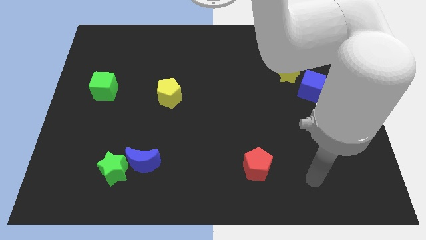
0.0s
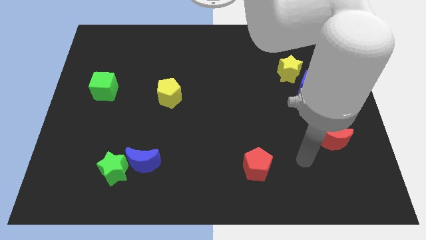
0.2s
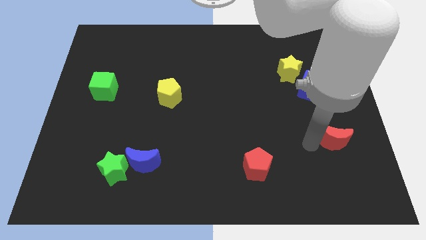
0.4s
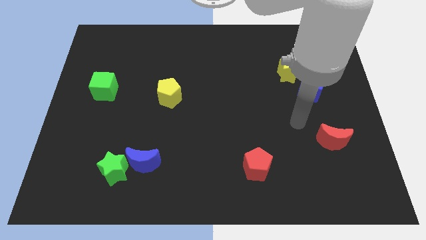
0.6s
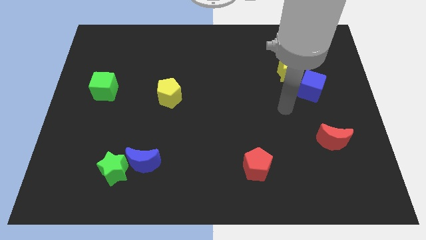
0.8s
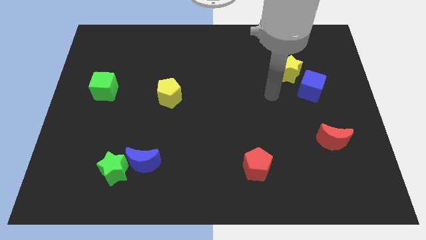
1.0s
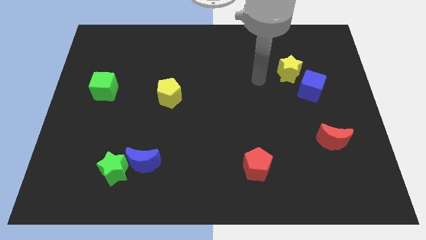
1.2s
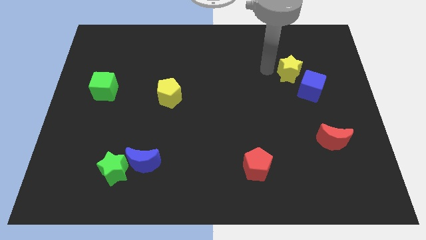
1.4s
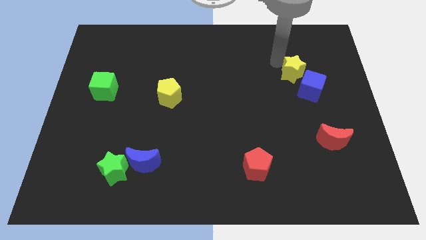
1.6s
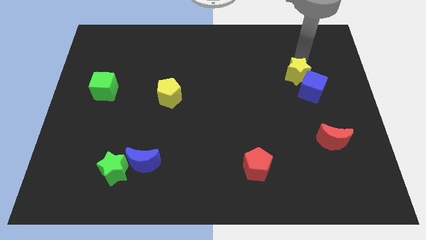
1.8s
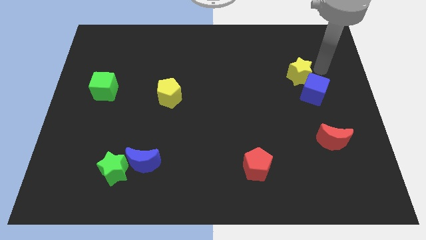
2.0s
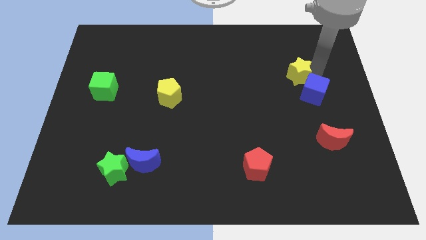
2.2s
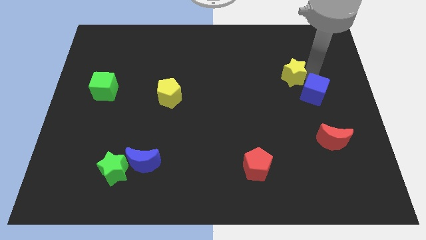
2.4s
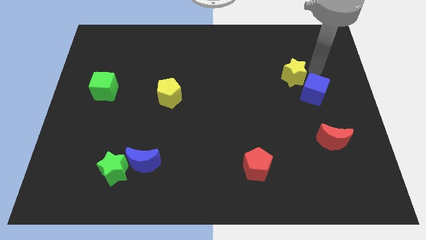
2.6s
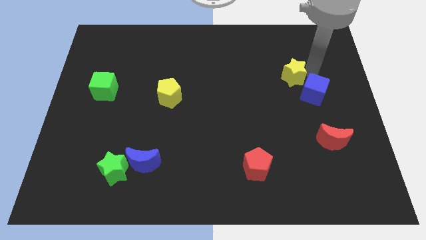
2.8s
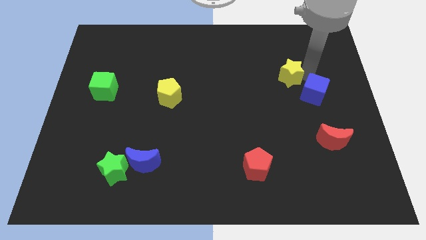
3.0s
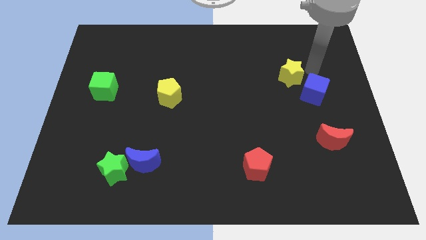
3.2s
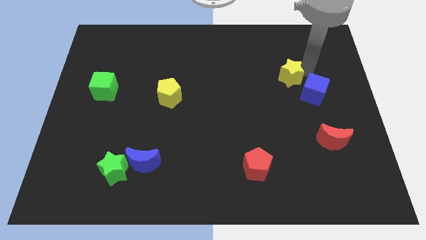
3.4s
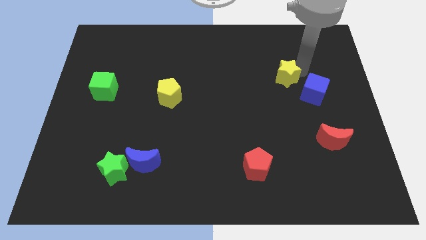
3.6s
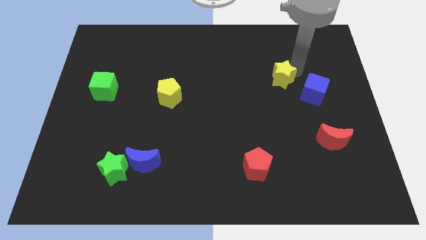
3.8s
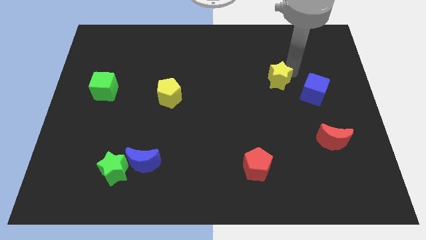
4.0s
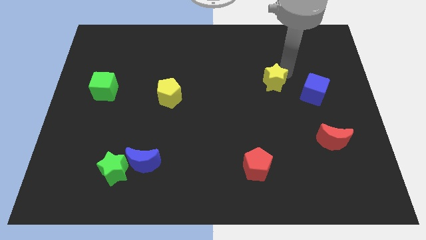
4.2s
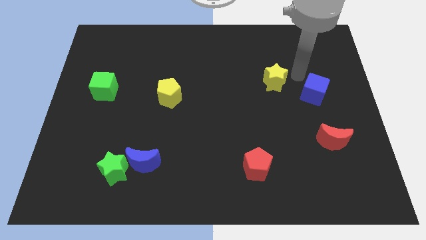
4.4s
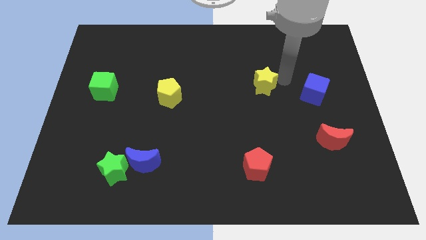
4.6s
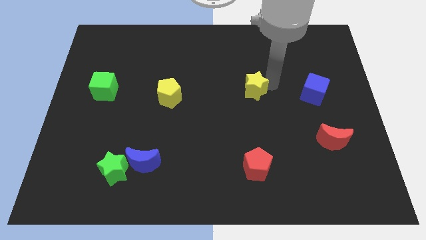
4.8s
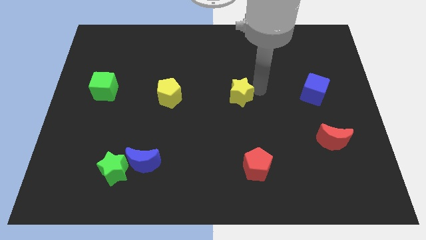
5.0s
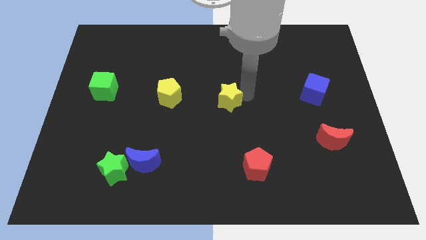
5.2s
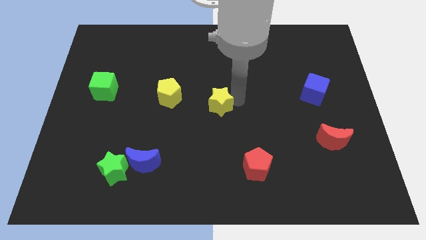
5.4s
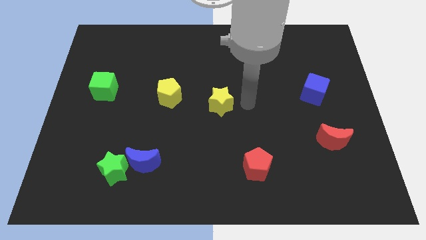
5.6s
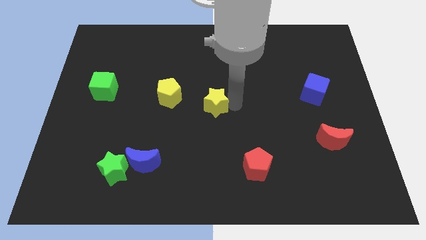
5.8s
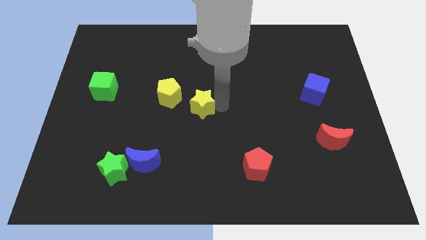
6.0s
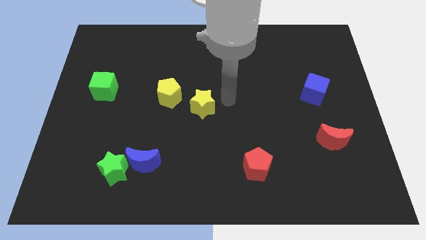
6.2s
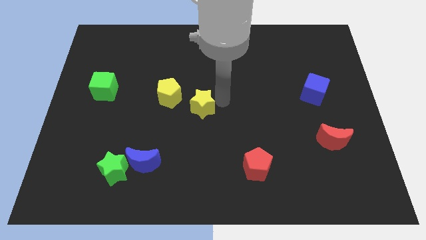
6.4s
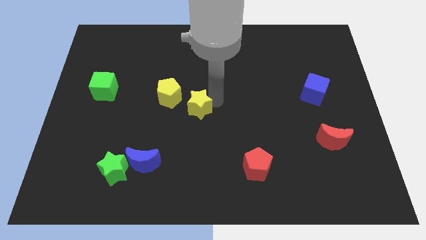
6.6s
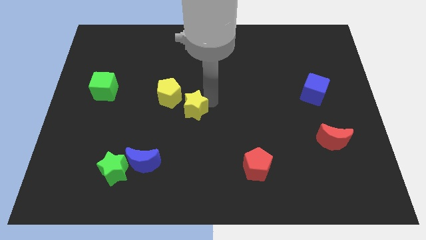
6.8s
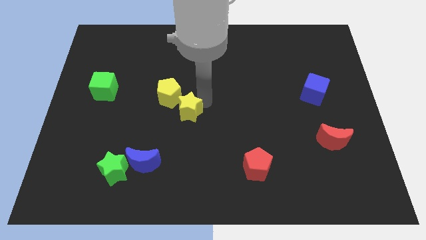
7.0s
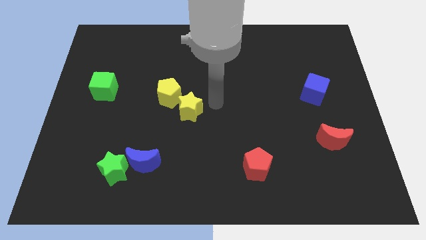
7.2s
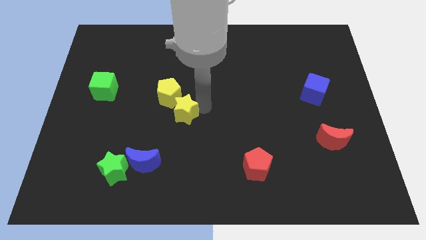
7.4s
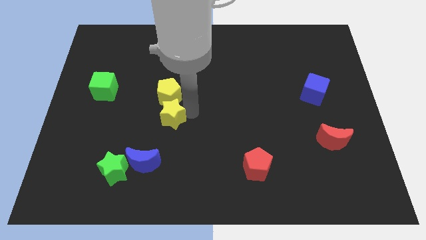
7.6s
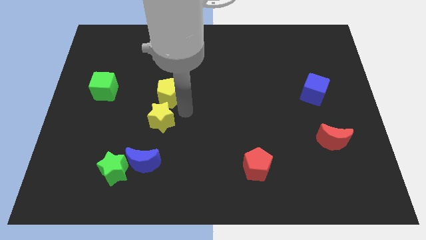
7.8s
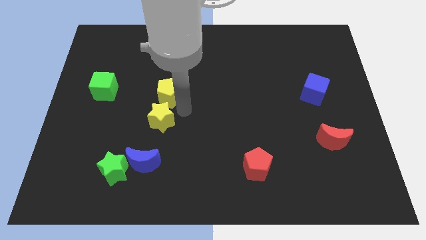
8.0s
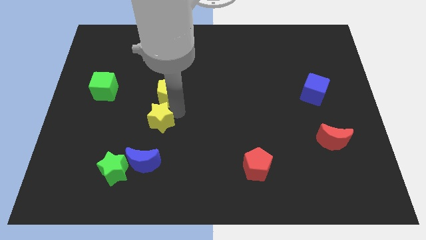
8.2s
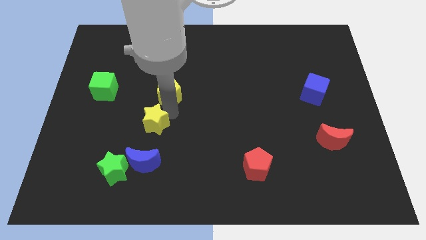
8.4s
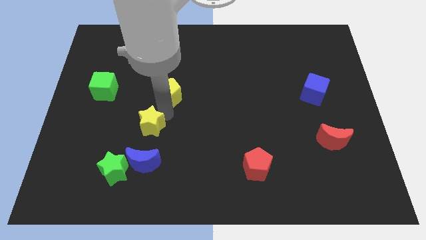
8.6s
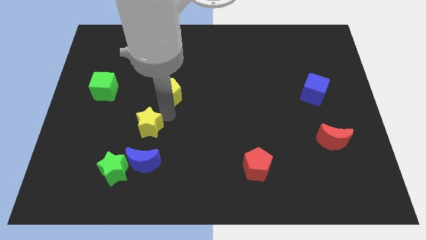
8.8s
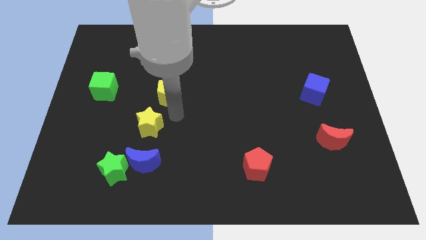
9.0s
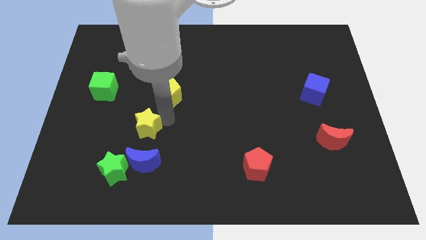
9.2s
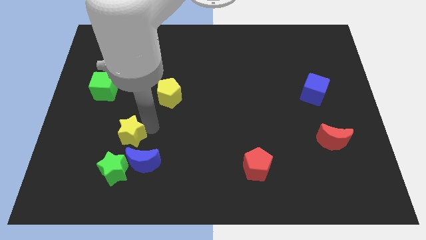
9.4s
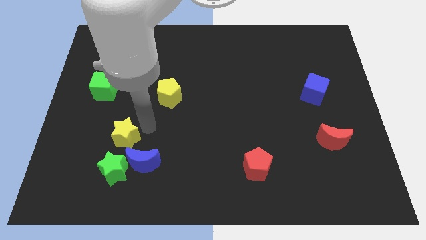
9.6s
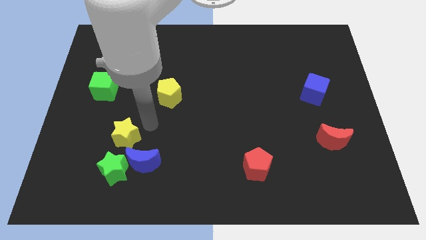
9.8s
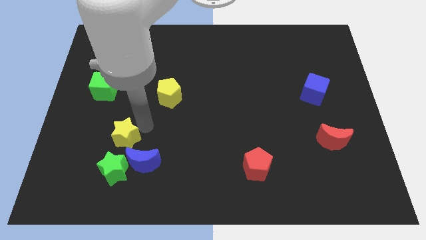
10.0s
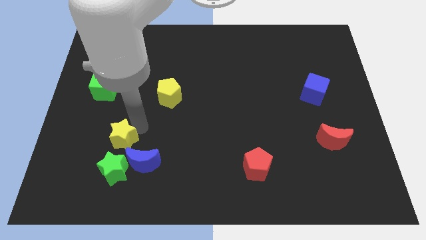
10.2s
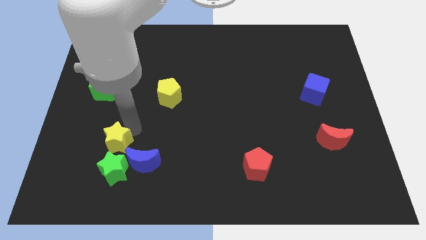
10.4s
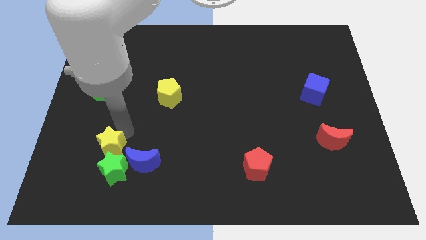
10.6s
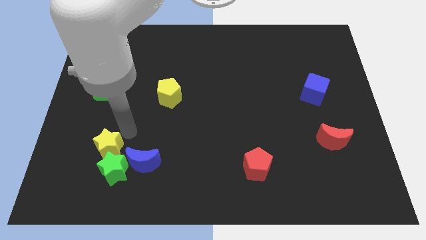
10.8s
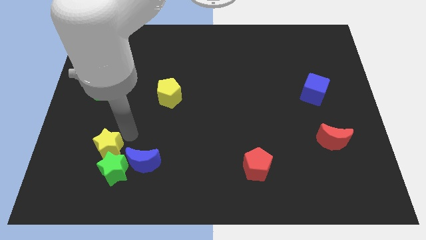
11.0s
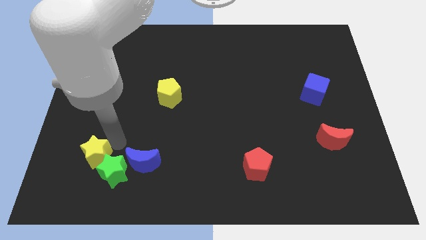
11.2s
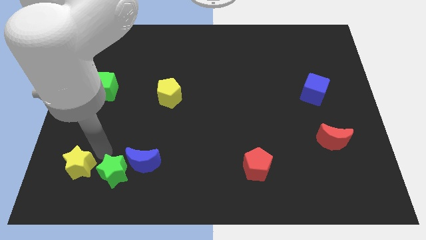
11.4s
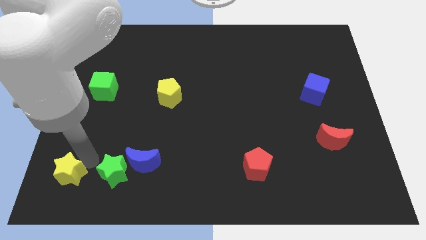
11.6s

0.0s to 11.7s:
slide the yellow star to the bottom left of the board

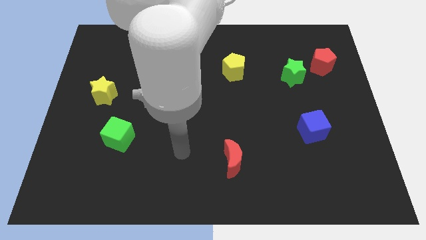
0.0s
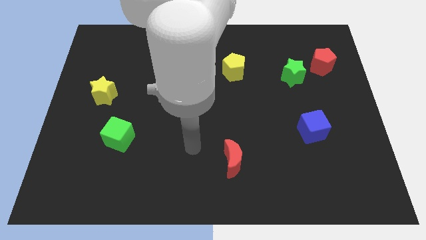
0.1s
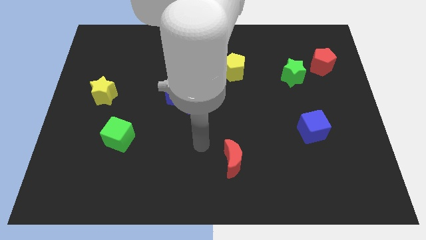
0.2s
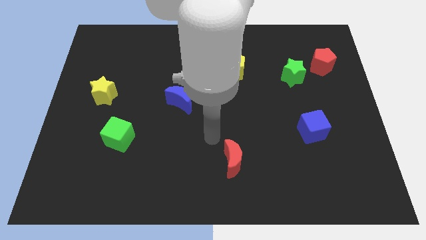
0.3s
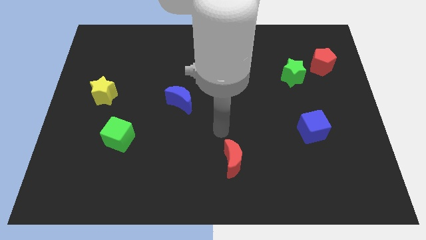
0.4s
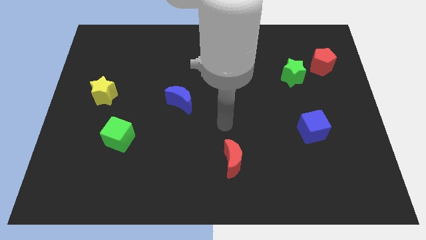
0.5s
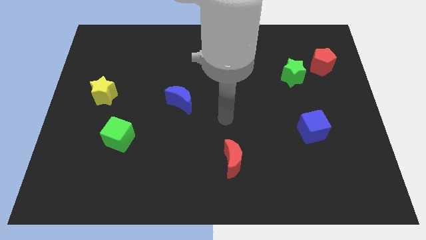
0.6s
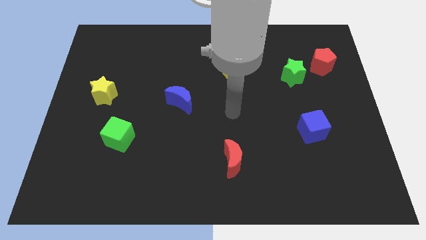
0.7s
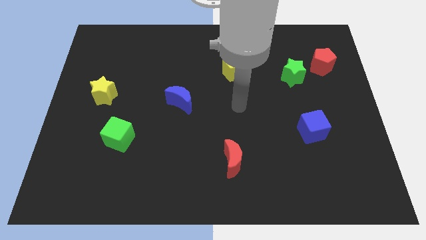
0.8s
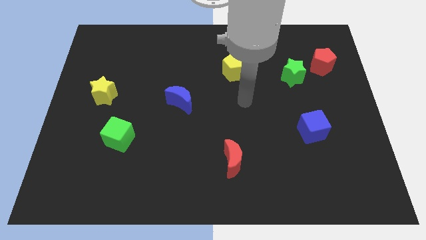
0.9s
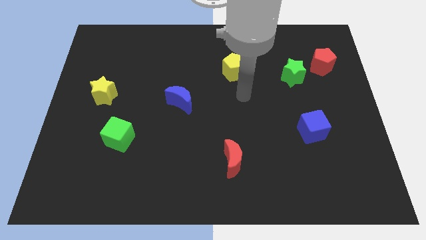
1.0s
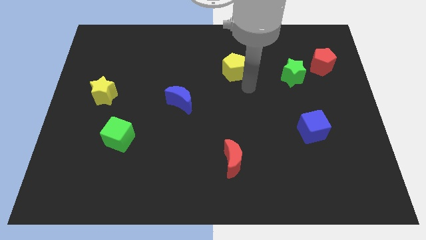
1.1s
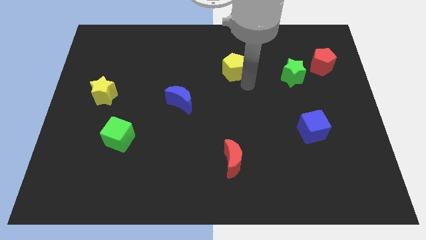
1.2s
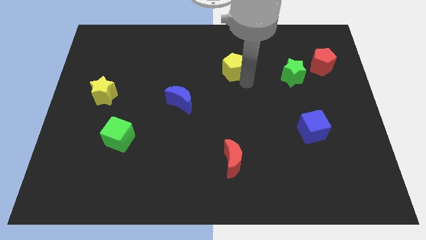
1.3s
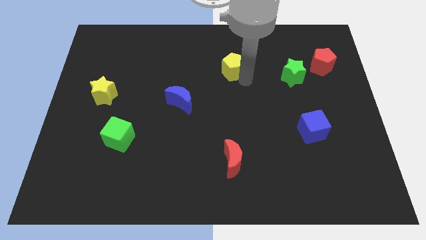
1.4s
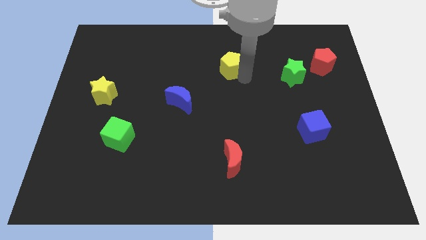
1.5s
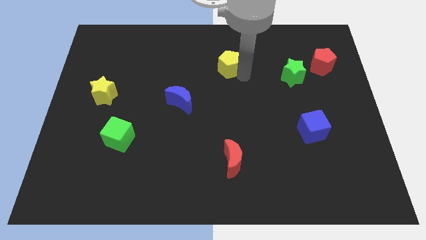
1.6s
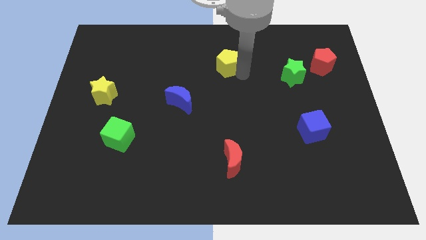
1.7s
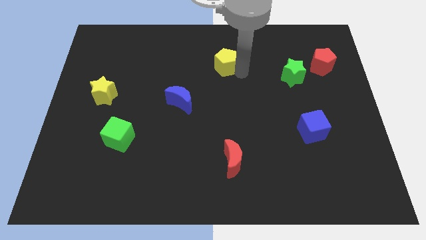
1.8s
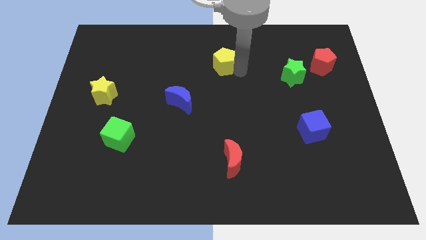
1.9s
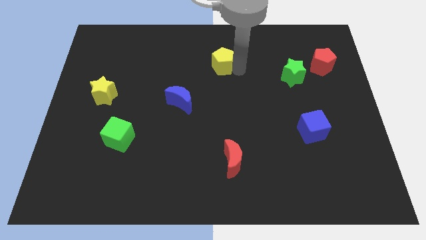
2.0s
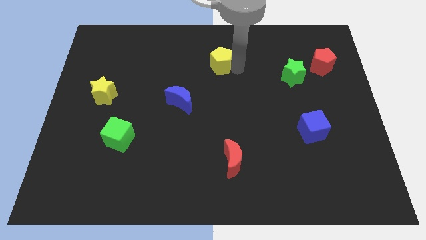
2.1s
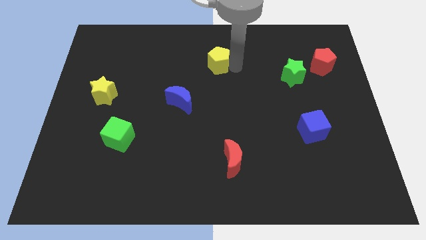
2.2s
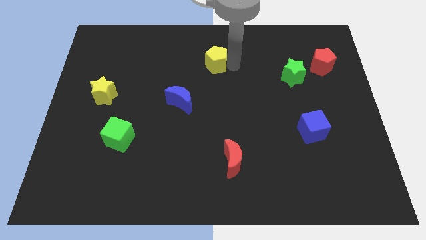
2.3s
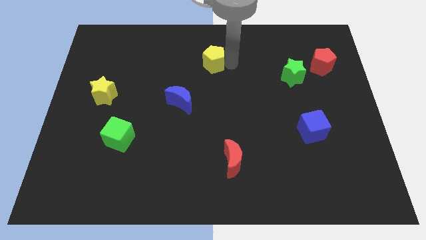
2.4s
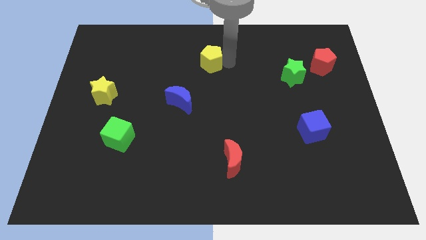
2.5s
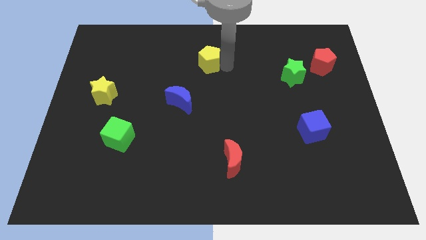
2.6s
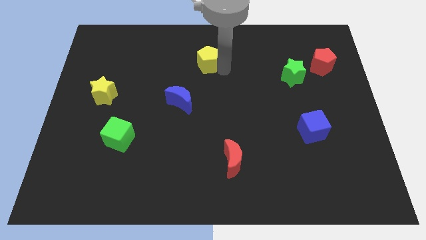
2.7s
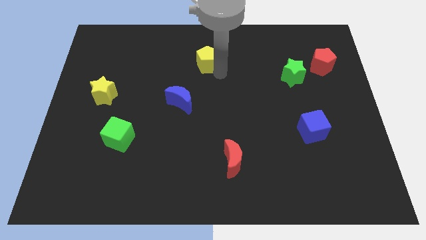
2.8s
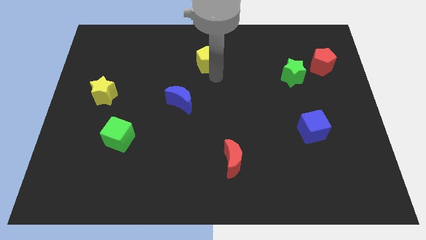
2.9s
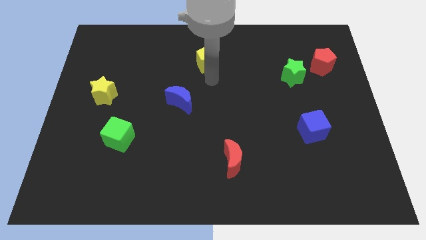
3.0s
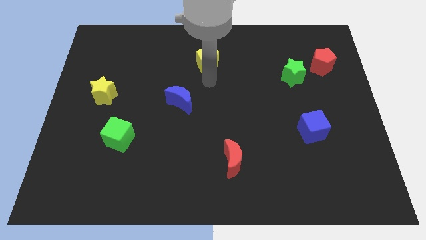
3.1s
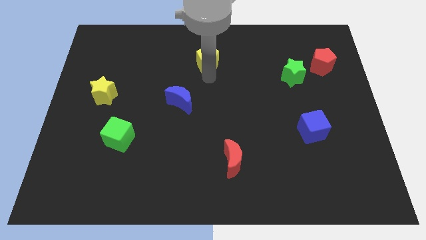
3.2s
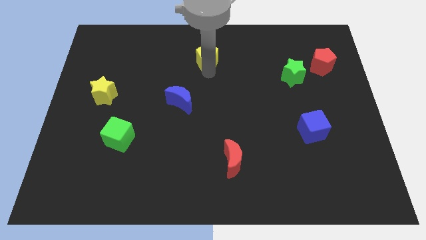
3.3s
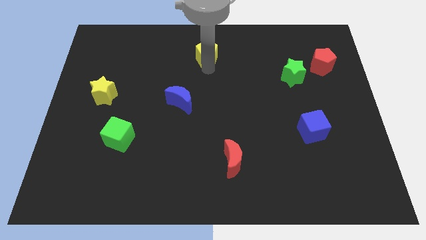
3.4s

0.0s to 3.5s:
move the yellow pentagon to the top
